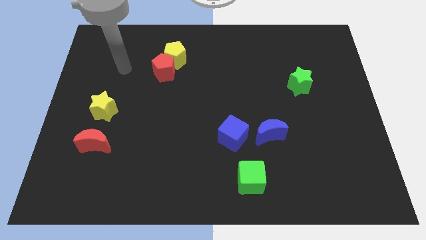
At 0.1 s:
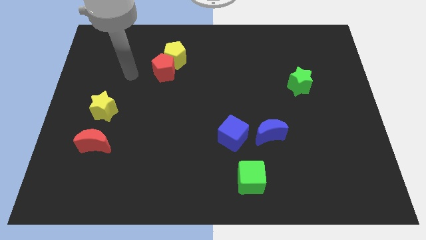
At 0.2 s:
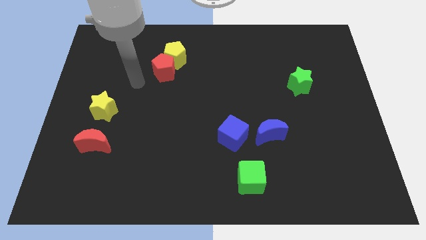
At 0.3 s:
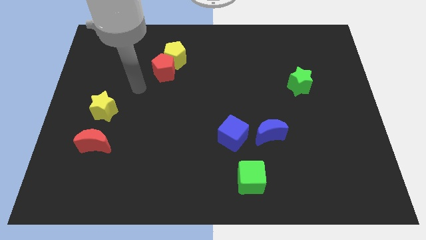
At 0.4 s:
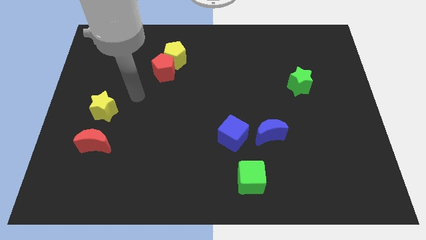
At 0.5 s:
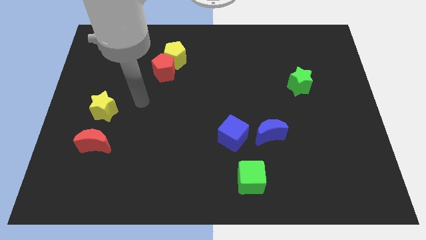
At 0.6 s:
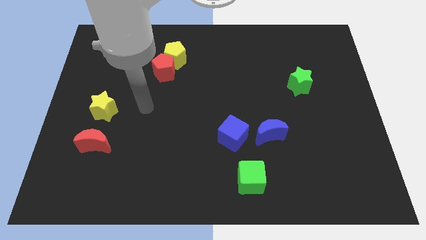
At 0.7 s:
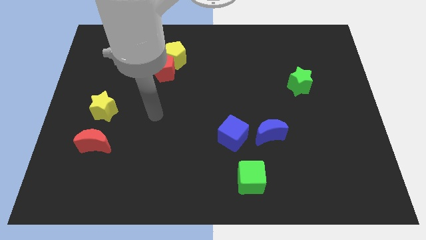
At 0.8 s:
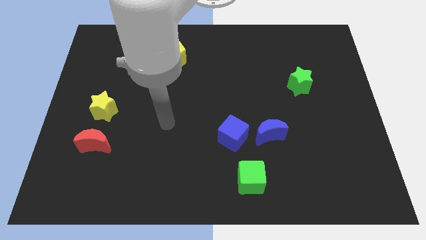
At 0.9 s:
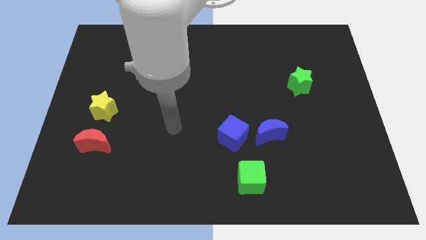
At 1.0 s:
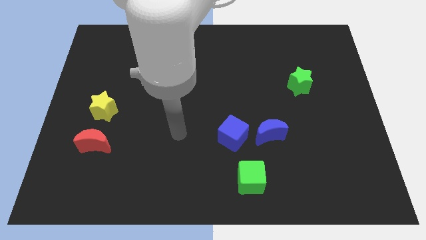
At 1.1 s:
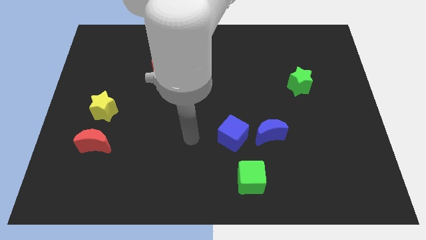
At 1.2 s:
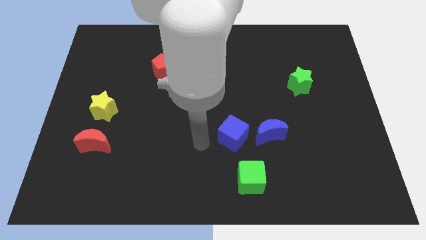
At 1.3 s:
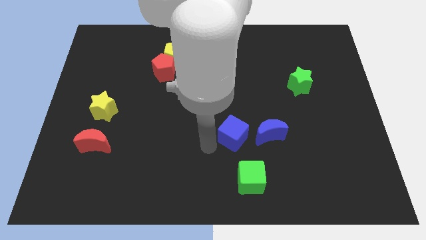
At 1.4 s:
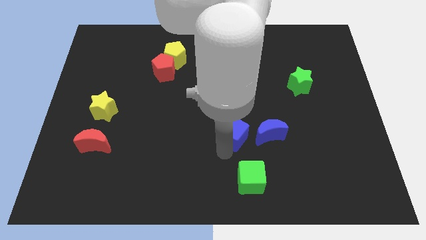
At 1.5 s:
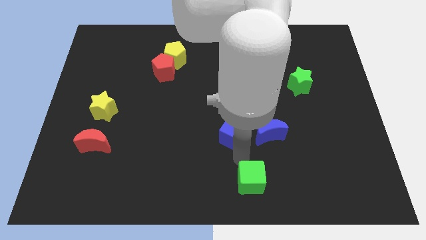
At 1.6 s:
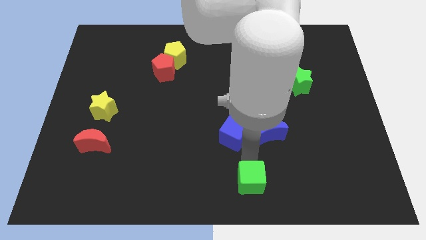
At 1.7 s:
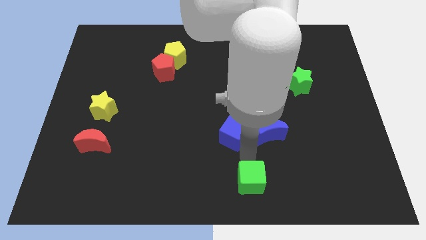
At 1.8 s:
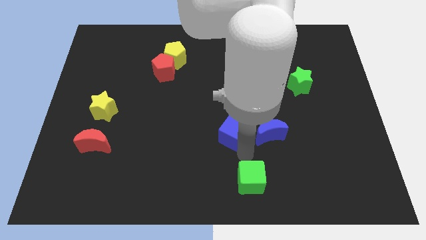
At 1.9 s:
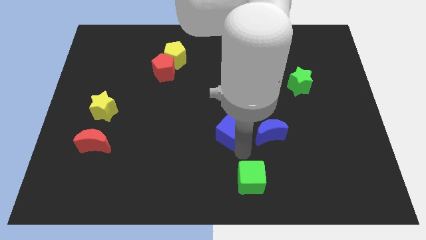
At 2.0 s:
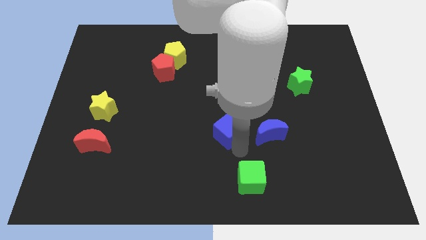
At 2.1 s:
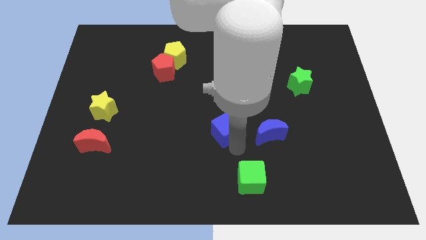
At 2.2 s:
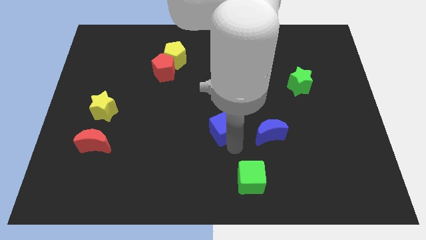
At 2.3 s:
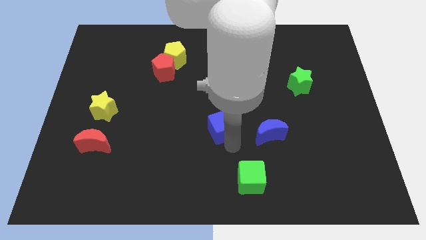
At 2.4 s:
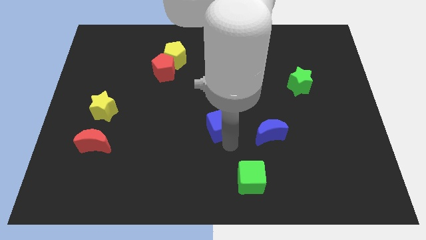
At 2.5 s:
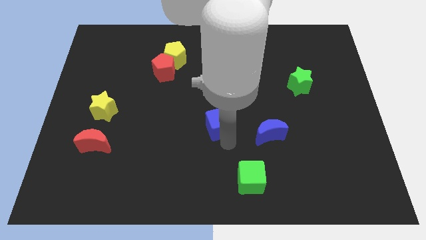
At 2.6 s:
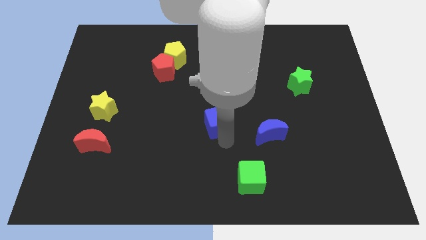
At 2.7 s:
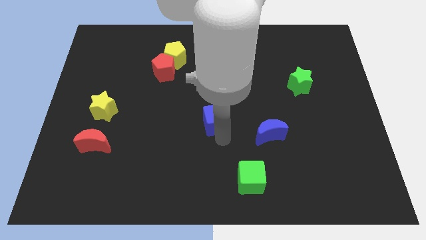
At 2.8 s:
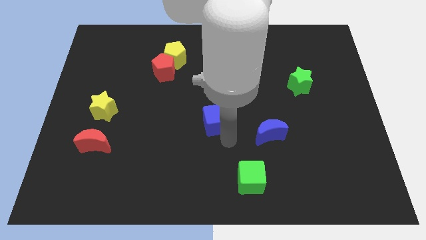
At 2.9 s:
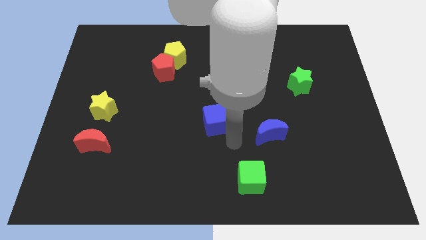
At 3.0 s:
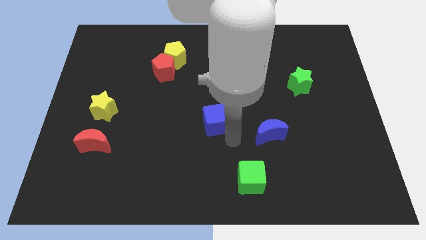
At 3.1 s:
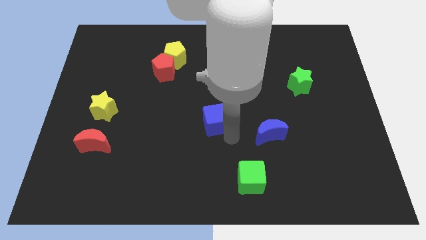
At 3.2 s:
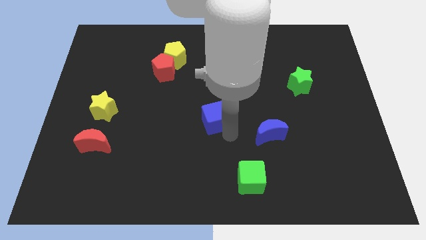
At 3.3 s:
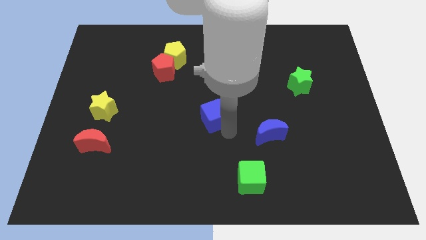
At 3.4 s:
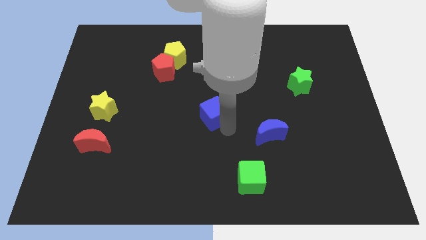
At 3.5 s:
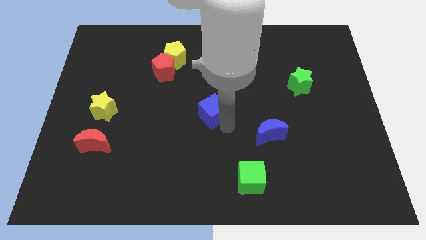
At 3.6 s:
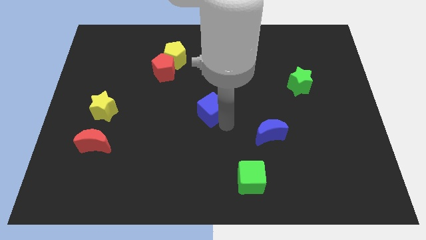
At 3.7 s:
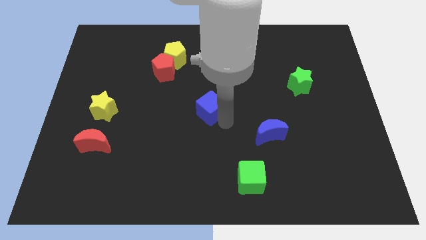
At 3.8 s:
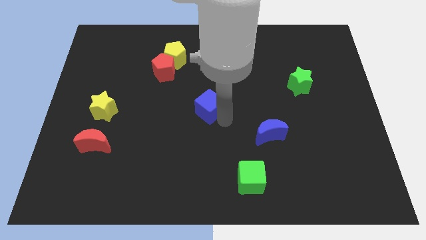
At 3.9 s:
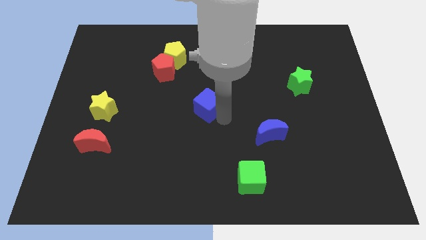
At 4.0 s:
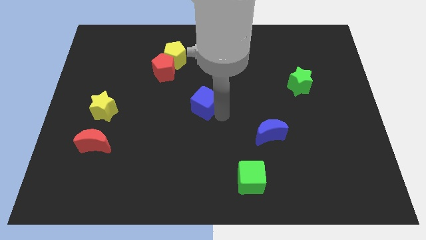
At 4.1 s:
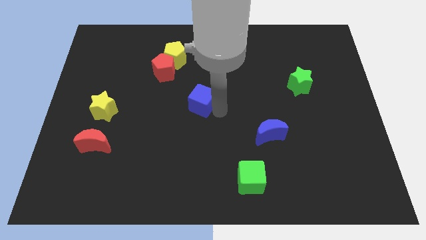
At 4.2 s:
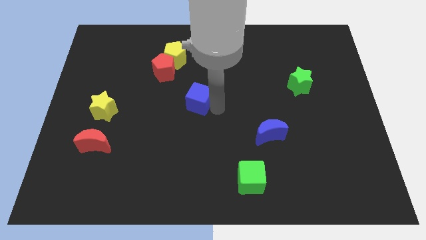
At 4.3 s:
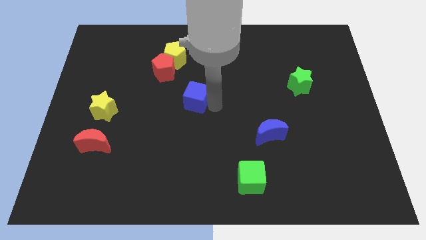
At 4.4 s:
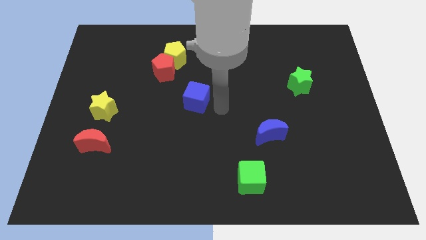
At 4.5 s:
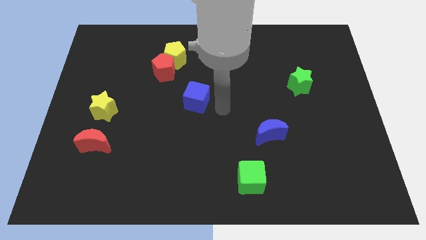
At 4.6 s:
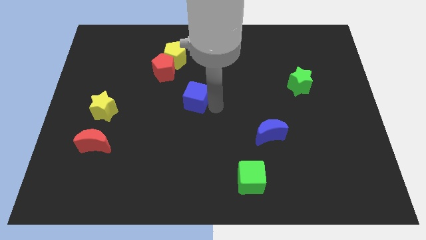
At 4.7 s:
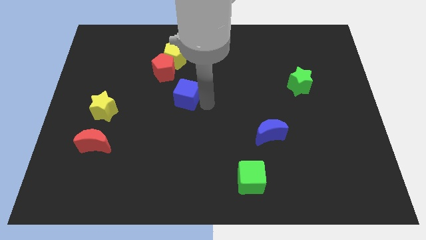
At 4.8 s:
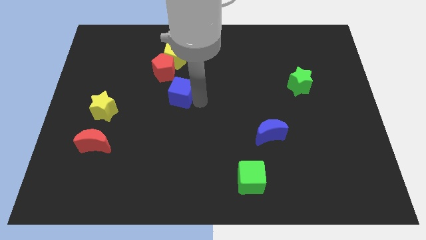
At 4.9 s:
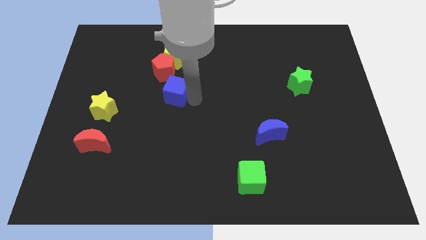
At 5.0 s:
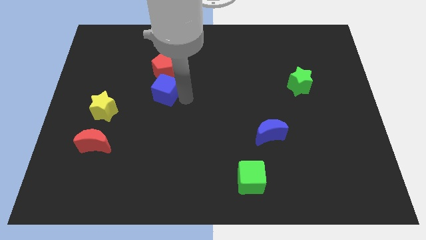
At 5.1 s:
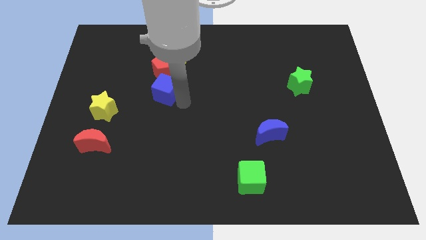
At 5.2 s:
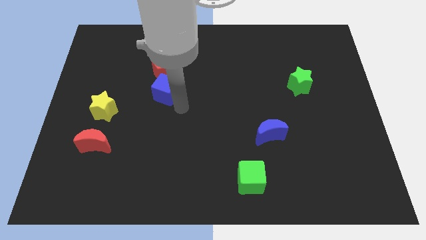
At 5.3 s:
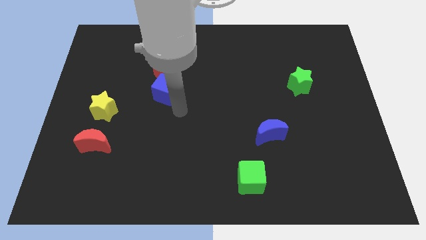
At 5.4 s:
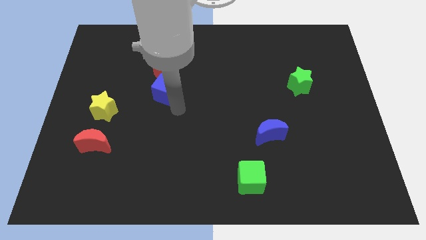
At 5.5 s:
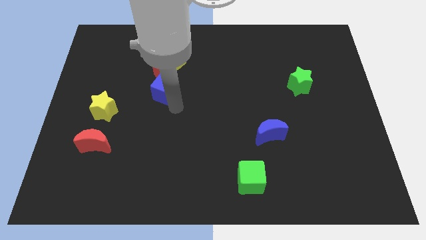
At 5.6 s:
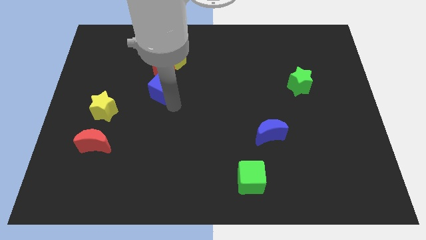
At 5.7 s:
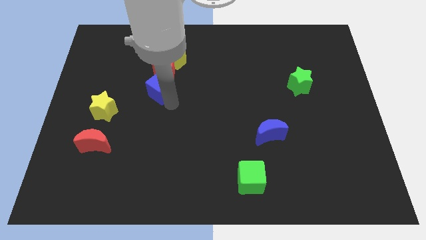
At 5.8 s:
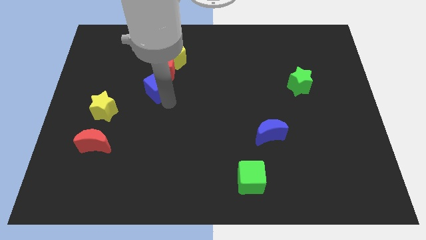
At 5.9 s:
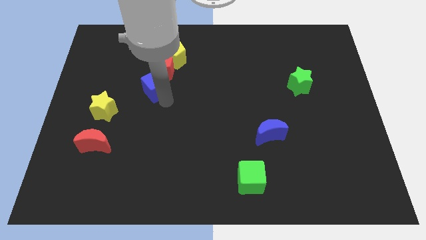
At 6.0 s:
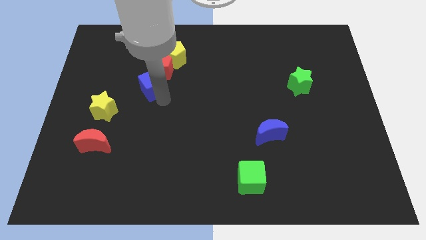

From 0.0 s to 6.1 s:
slide the blue cube to the bottom left side of the yellow pentagon

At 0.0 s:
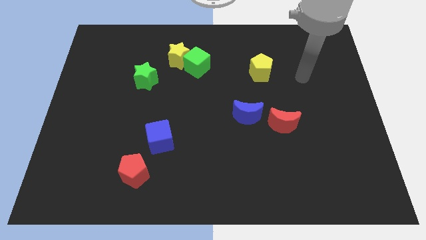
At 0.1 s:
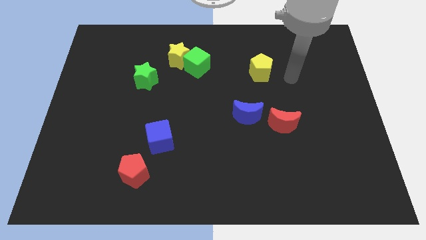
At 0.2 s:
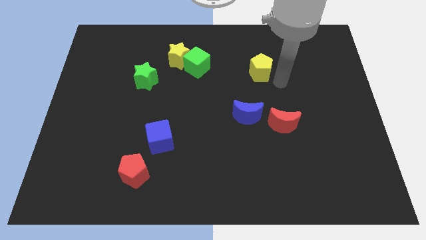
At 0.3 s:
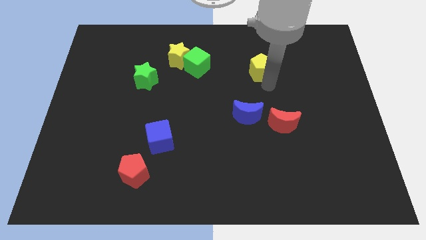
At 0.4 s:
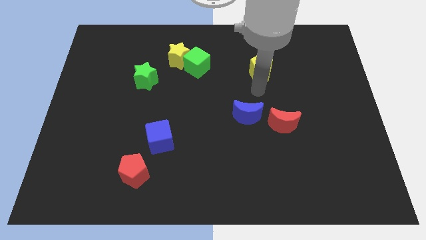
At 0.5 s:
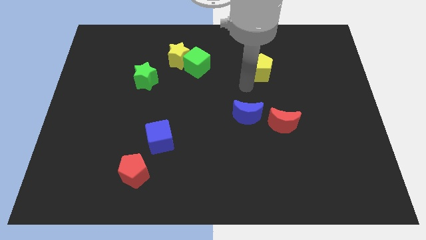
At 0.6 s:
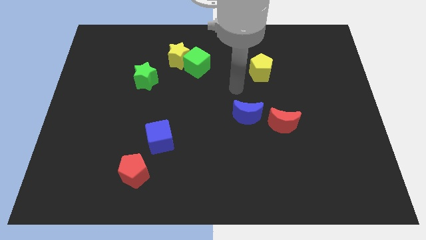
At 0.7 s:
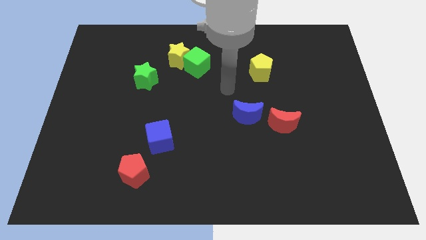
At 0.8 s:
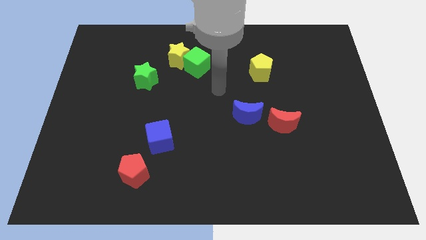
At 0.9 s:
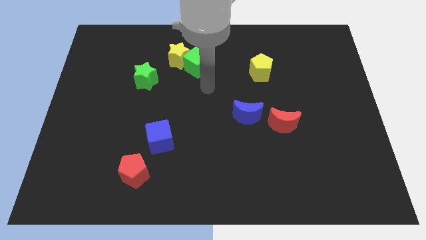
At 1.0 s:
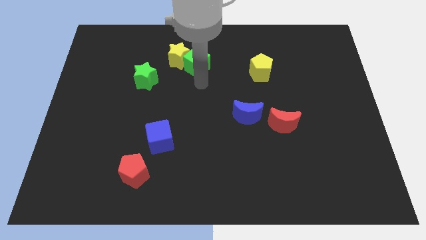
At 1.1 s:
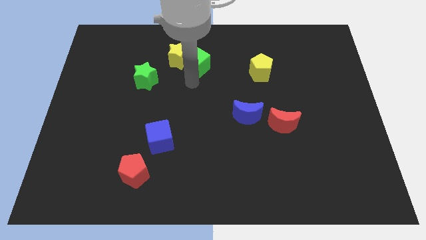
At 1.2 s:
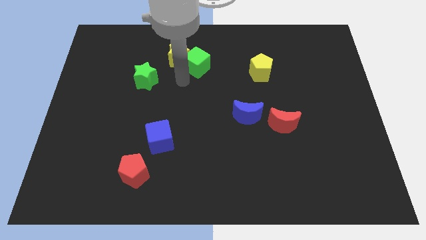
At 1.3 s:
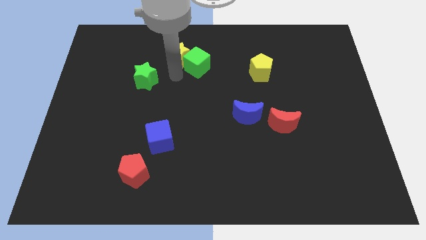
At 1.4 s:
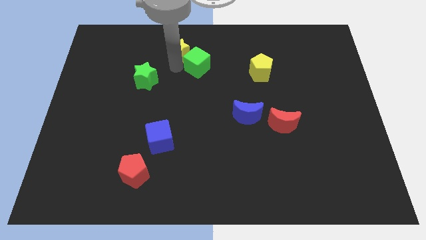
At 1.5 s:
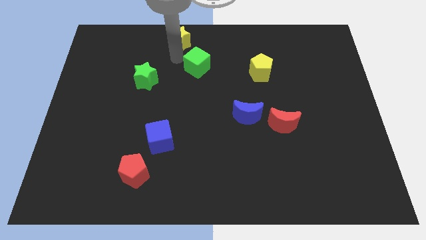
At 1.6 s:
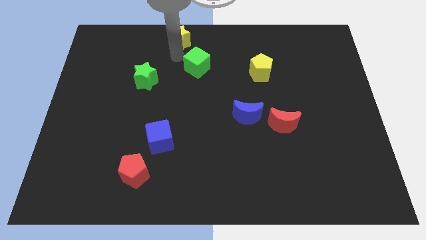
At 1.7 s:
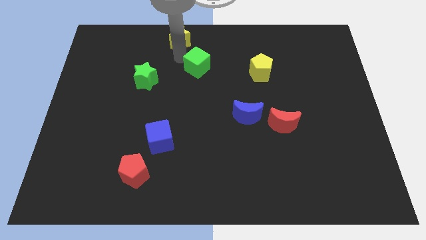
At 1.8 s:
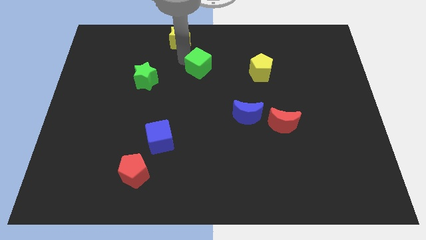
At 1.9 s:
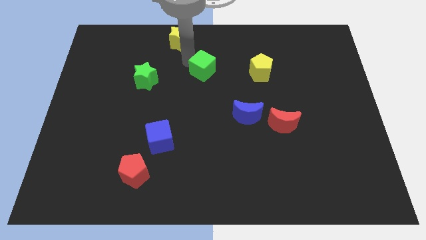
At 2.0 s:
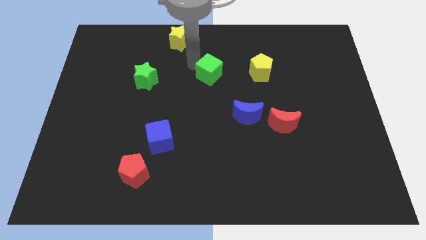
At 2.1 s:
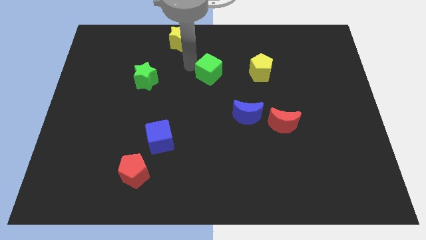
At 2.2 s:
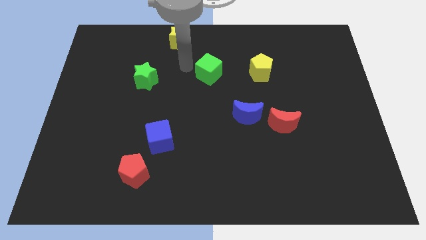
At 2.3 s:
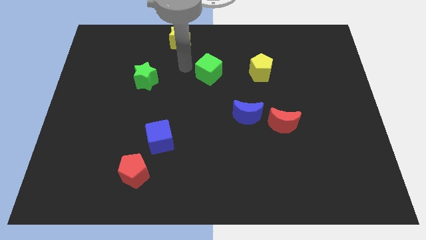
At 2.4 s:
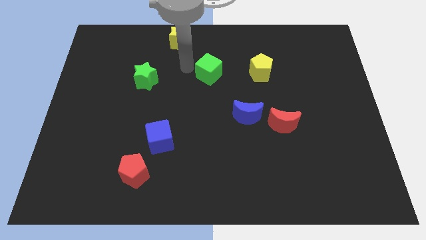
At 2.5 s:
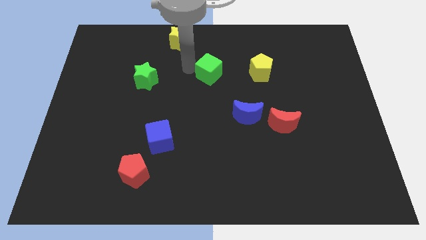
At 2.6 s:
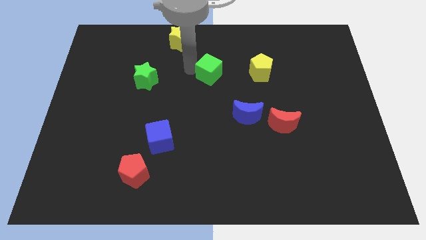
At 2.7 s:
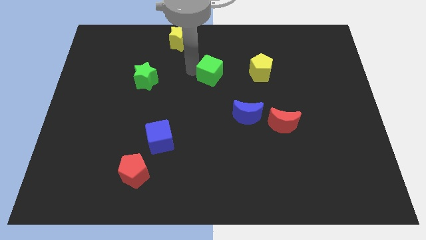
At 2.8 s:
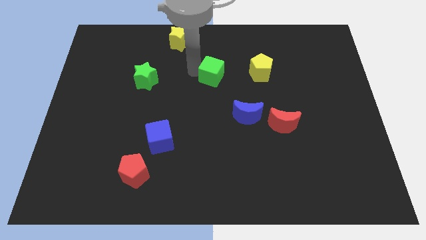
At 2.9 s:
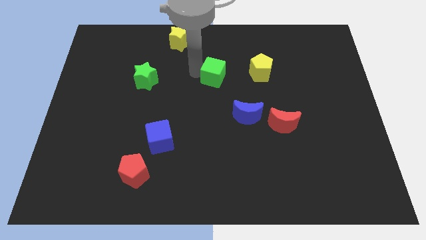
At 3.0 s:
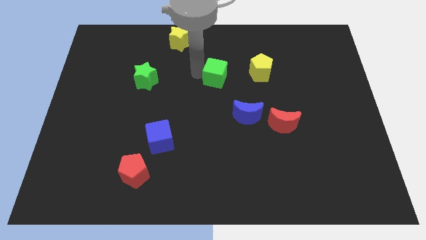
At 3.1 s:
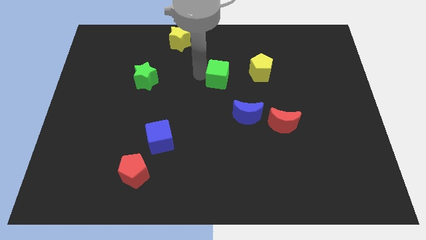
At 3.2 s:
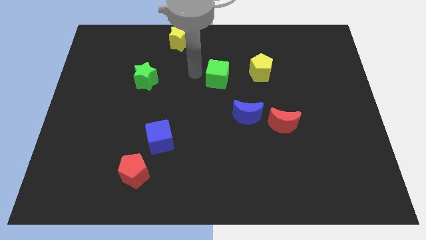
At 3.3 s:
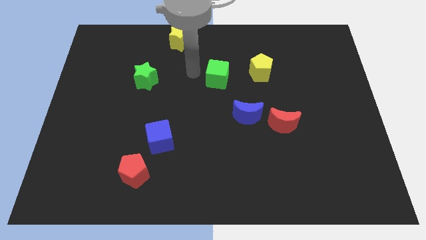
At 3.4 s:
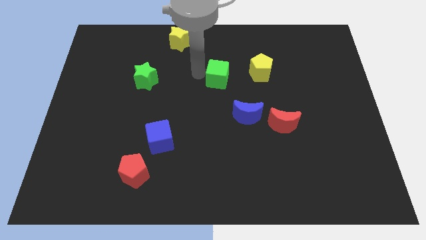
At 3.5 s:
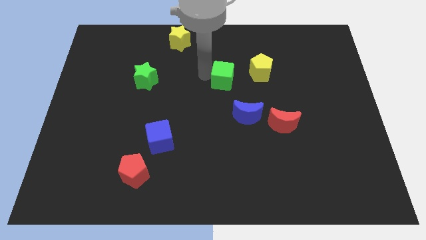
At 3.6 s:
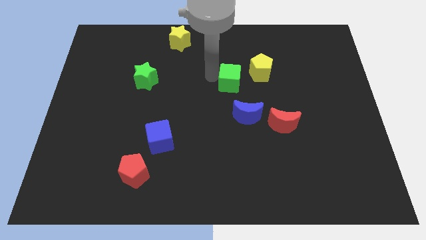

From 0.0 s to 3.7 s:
push the green cube to the top side of the blue moon
